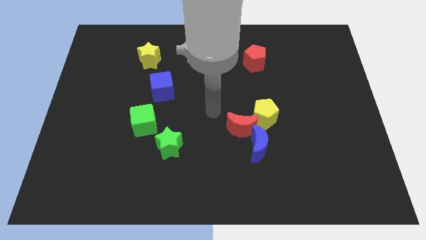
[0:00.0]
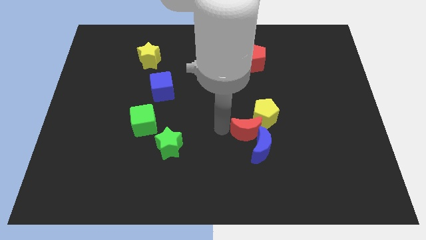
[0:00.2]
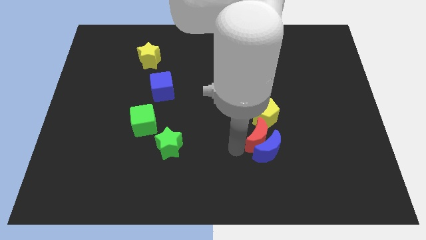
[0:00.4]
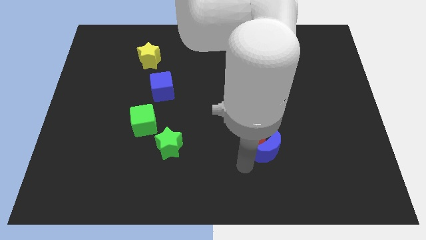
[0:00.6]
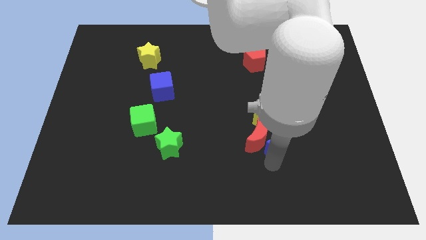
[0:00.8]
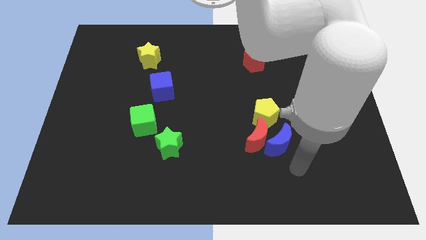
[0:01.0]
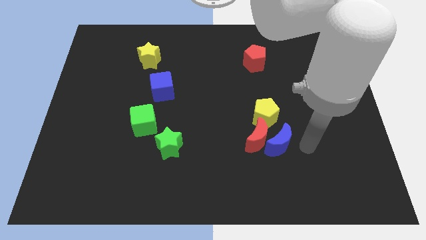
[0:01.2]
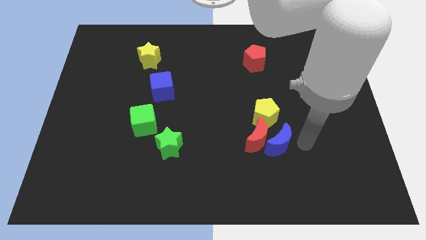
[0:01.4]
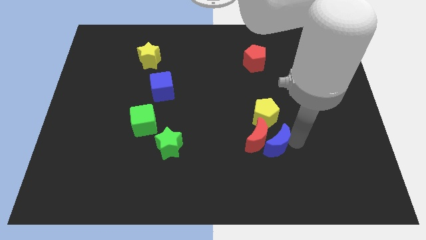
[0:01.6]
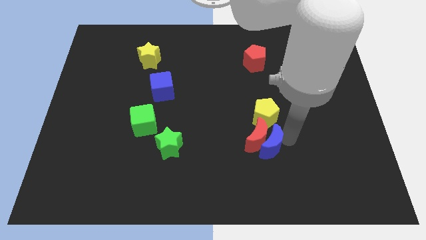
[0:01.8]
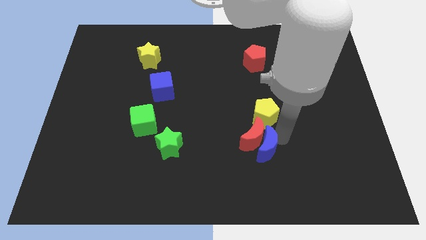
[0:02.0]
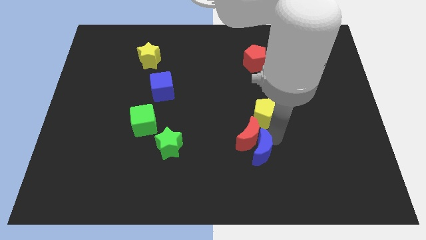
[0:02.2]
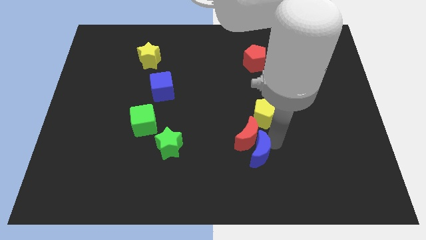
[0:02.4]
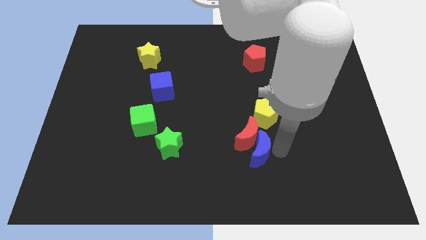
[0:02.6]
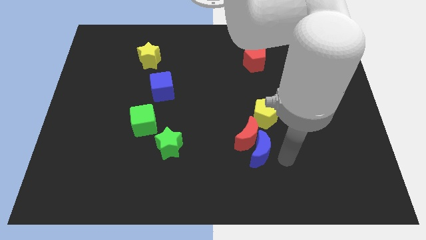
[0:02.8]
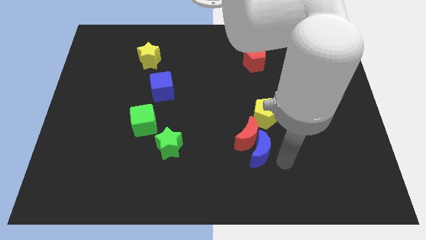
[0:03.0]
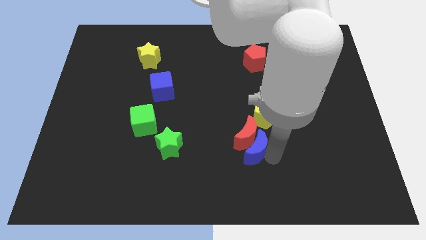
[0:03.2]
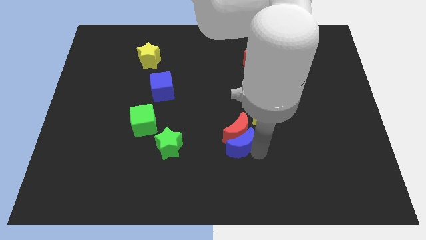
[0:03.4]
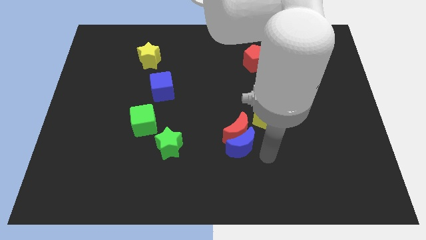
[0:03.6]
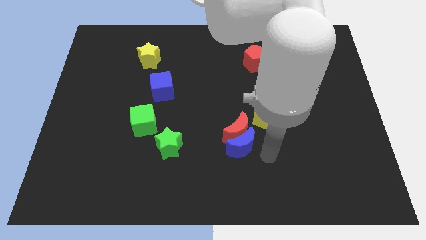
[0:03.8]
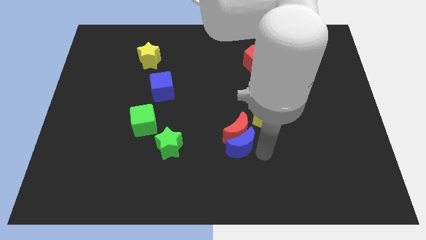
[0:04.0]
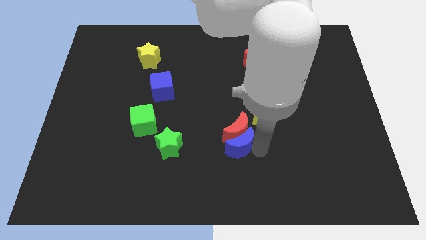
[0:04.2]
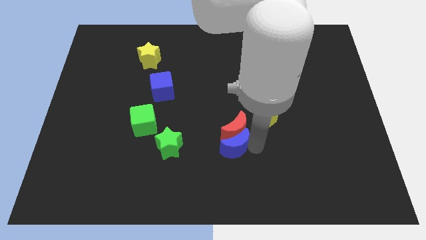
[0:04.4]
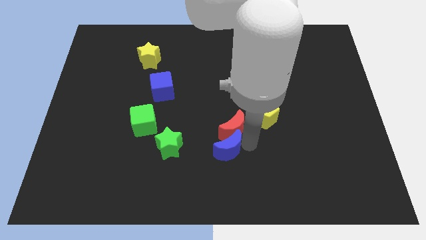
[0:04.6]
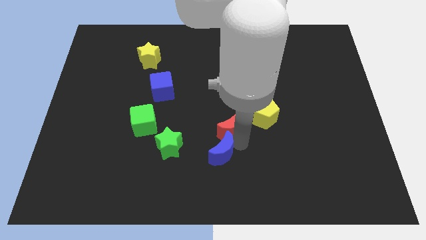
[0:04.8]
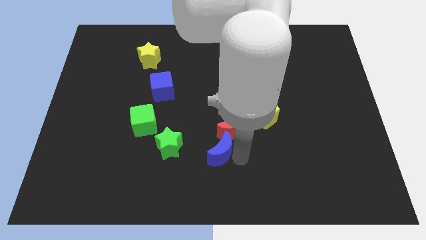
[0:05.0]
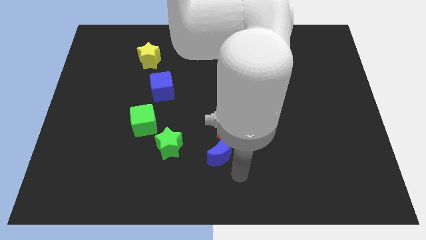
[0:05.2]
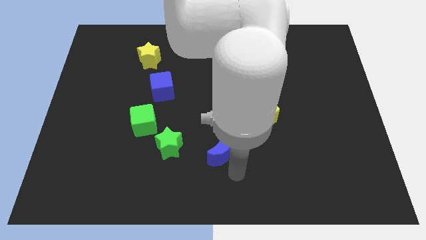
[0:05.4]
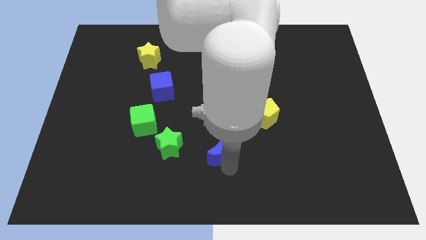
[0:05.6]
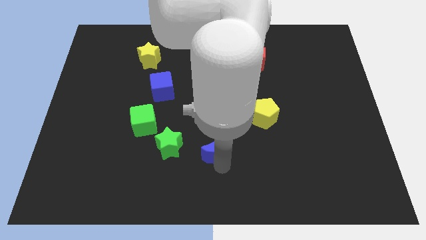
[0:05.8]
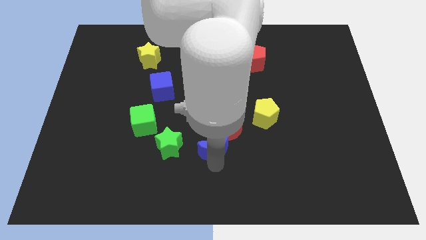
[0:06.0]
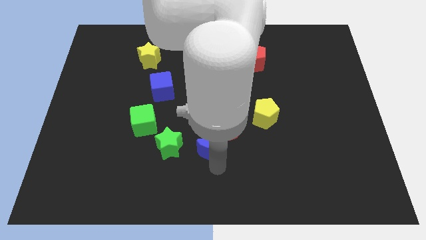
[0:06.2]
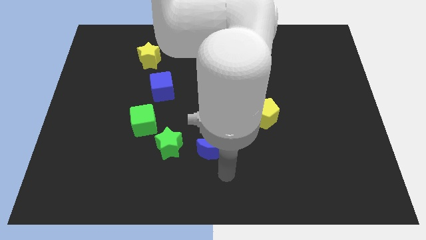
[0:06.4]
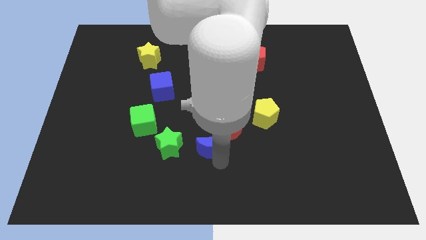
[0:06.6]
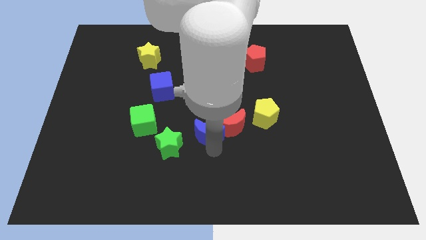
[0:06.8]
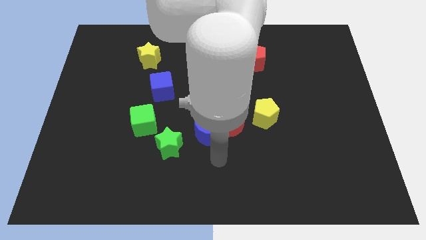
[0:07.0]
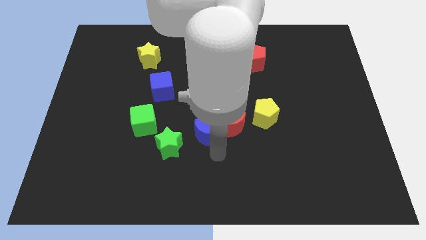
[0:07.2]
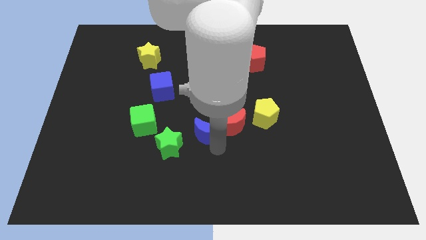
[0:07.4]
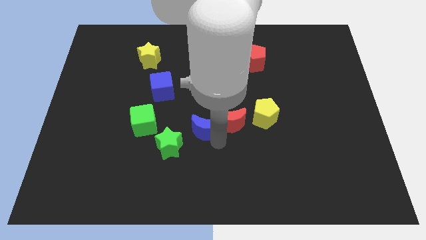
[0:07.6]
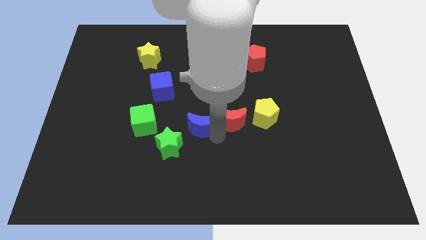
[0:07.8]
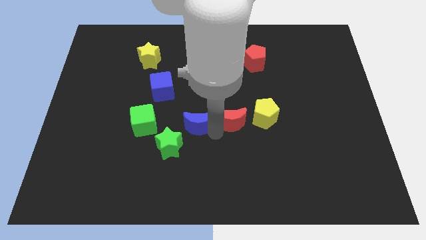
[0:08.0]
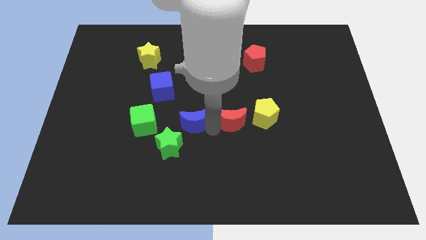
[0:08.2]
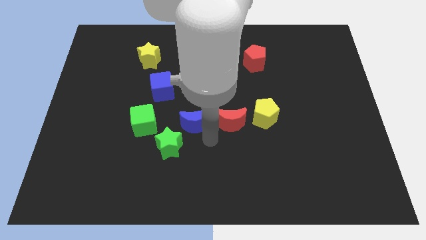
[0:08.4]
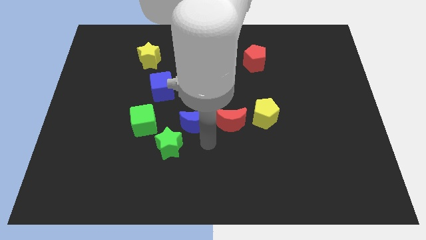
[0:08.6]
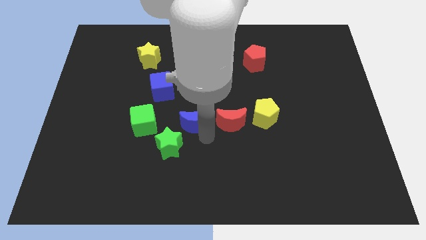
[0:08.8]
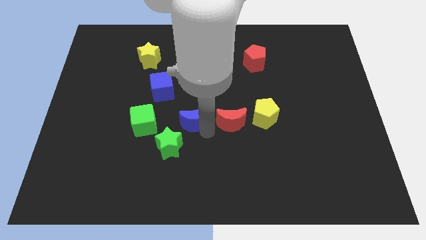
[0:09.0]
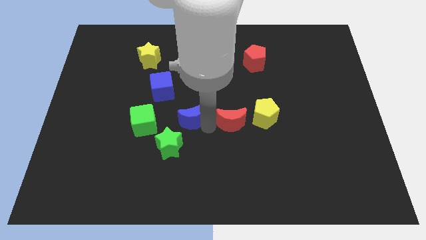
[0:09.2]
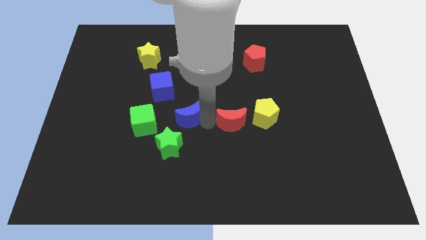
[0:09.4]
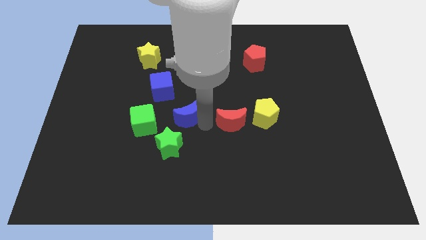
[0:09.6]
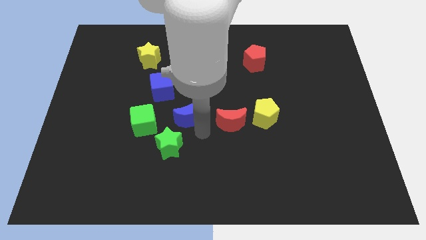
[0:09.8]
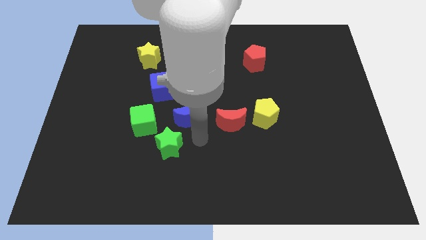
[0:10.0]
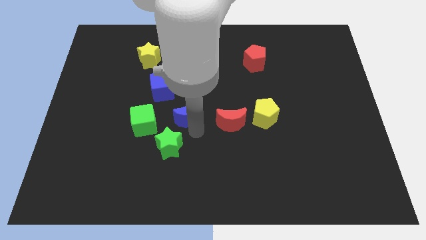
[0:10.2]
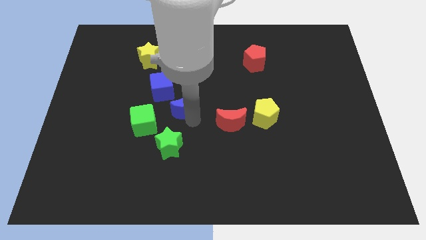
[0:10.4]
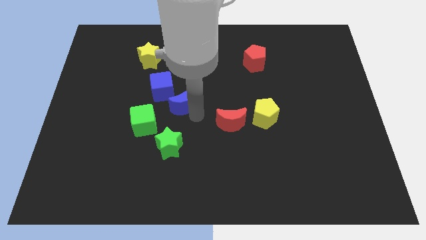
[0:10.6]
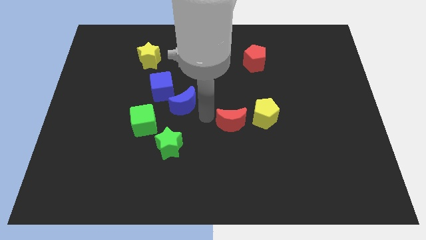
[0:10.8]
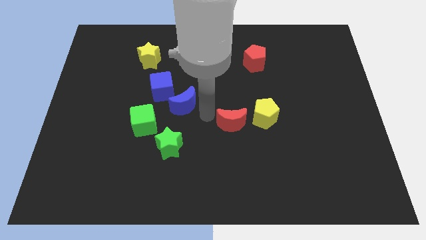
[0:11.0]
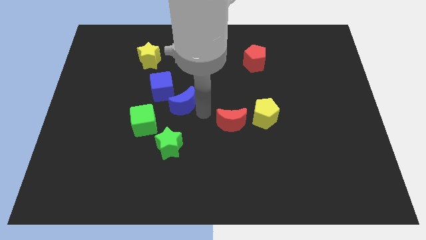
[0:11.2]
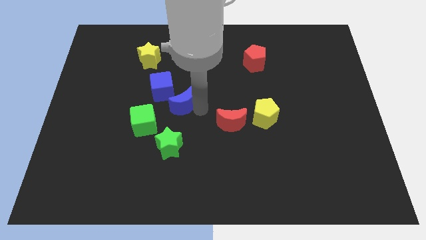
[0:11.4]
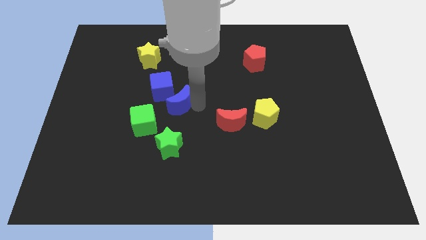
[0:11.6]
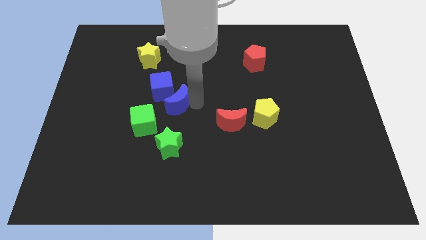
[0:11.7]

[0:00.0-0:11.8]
move the blue moon next to the blue cube
